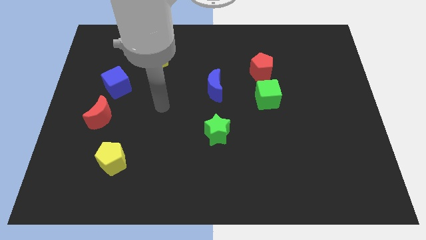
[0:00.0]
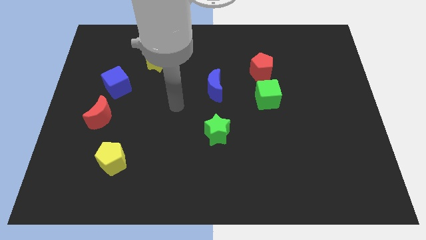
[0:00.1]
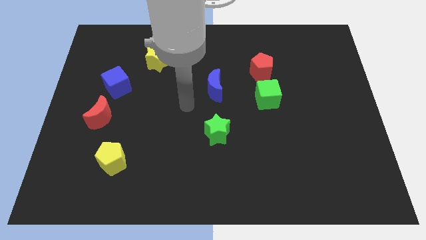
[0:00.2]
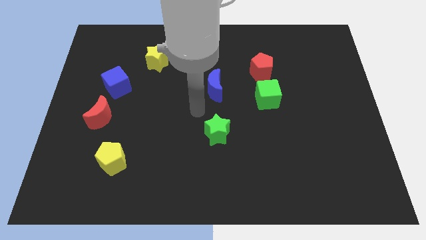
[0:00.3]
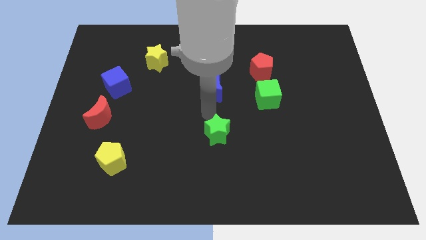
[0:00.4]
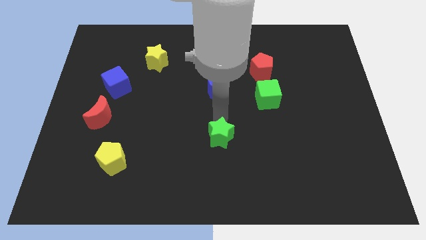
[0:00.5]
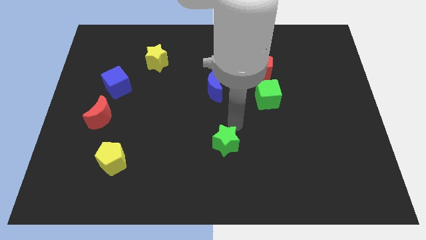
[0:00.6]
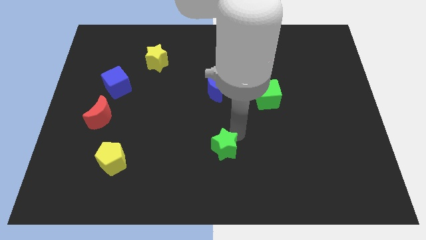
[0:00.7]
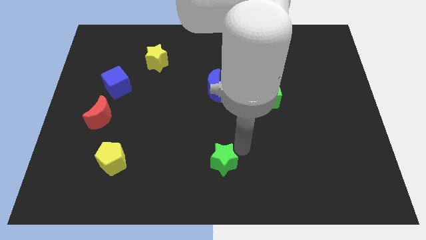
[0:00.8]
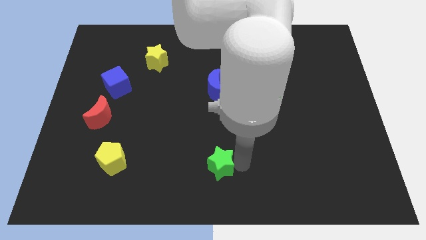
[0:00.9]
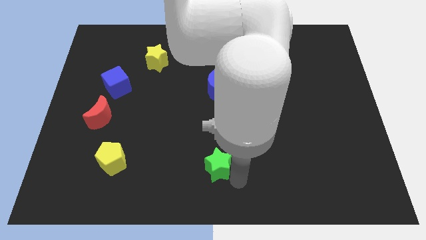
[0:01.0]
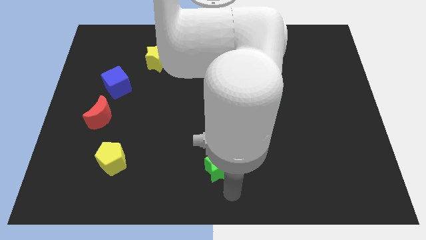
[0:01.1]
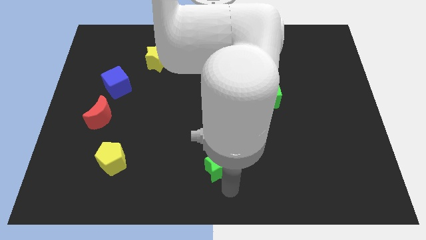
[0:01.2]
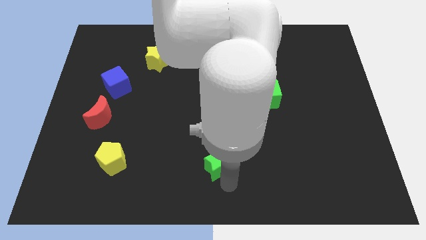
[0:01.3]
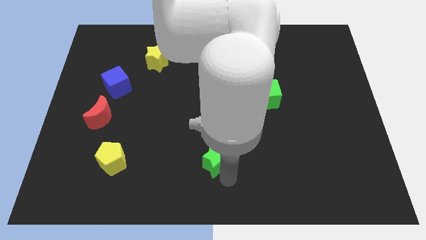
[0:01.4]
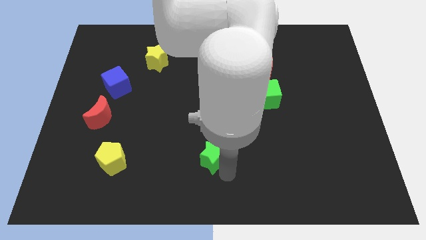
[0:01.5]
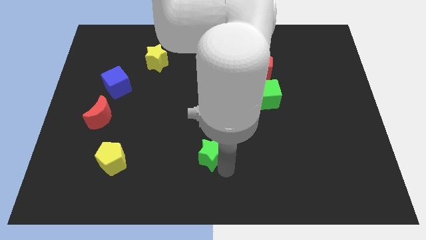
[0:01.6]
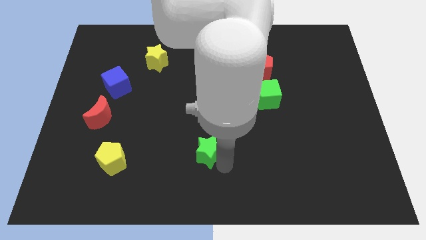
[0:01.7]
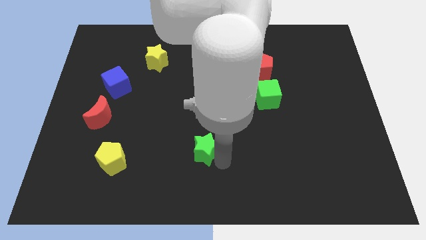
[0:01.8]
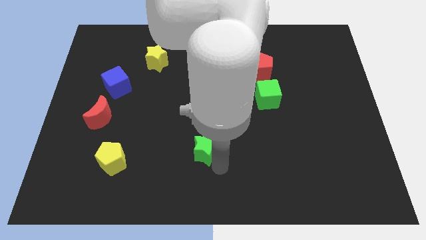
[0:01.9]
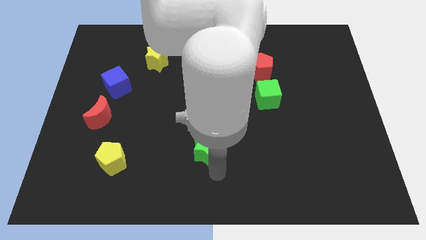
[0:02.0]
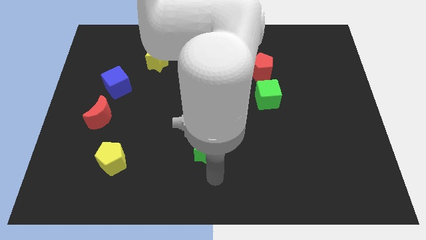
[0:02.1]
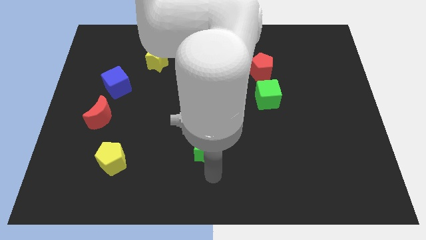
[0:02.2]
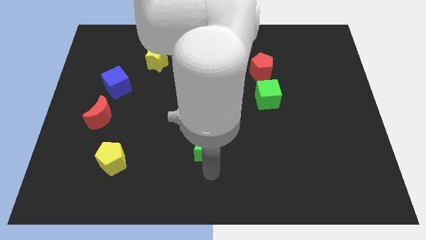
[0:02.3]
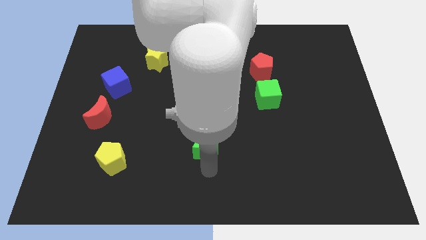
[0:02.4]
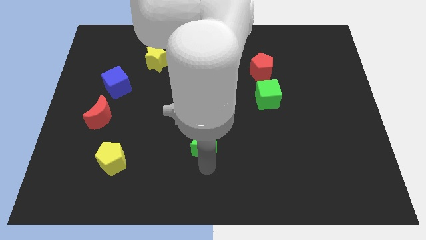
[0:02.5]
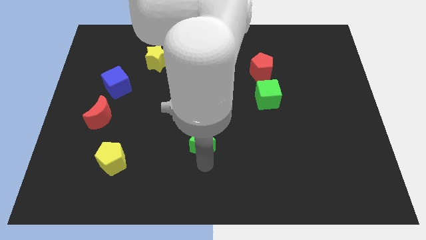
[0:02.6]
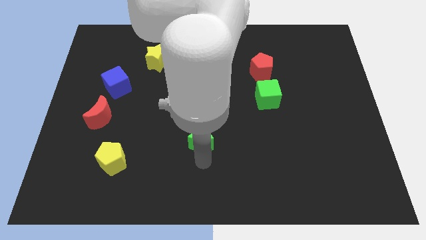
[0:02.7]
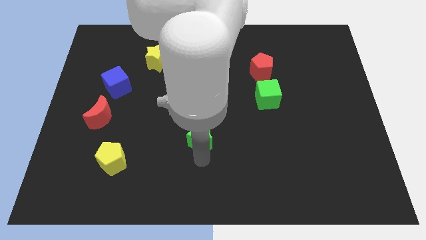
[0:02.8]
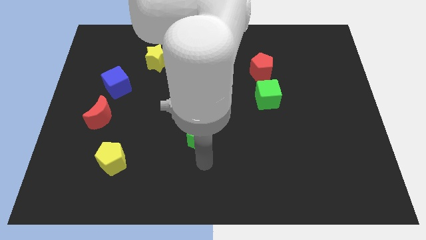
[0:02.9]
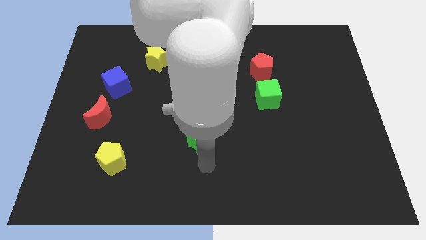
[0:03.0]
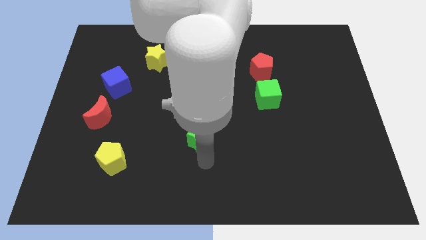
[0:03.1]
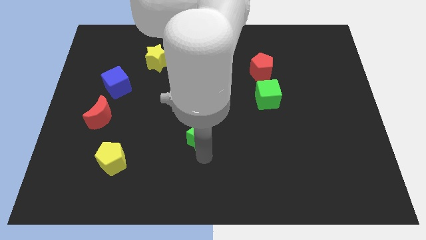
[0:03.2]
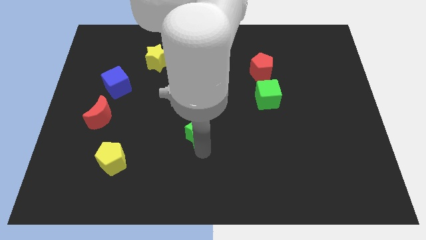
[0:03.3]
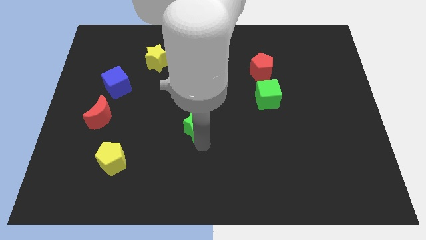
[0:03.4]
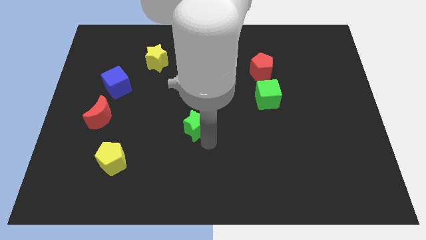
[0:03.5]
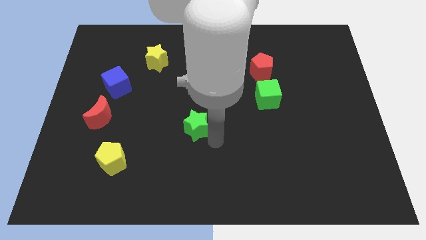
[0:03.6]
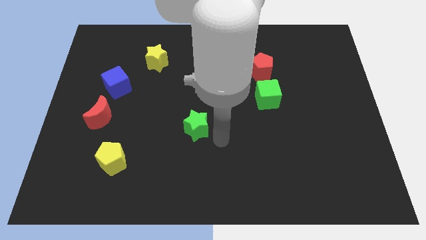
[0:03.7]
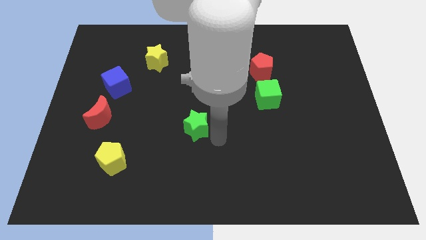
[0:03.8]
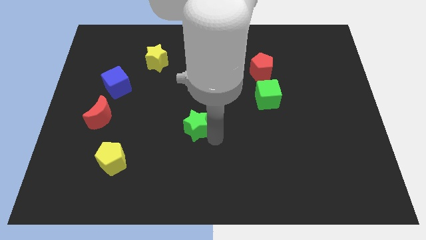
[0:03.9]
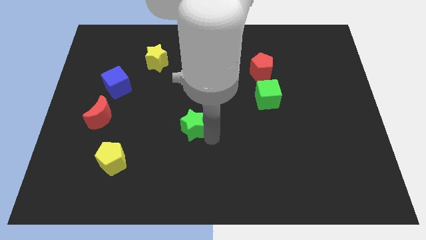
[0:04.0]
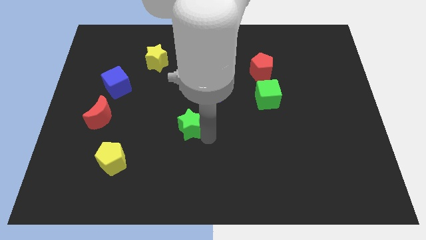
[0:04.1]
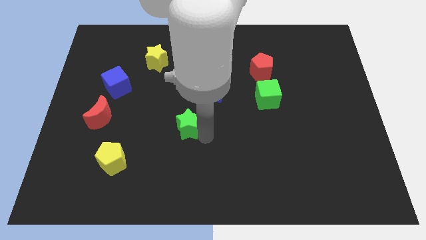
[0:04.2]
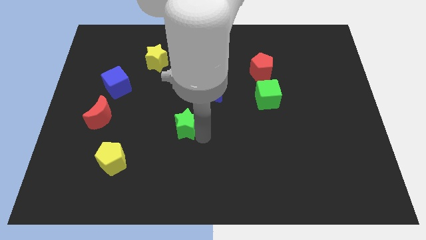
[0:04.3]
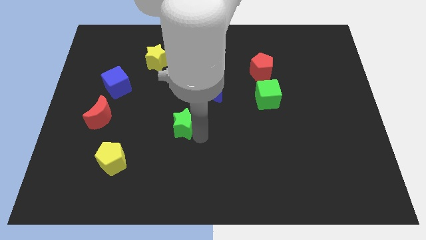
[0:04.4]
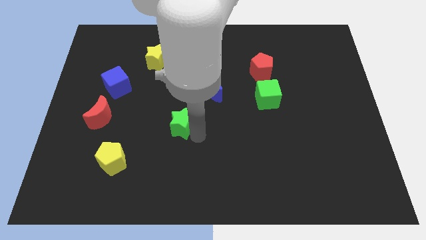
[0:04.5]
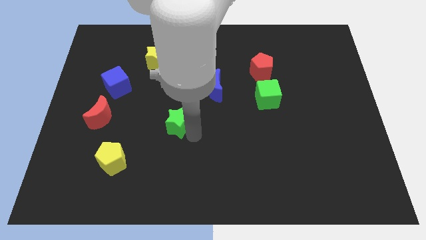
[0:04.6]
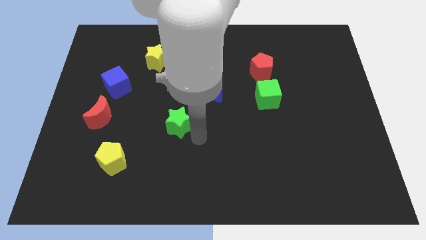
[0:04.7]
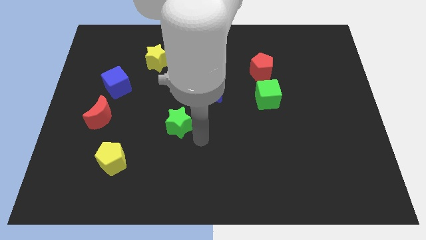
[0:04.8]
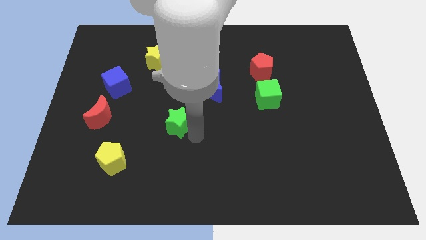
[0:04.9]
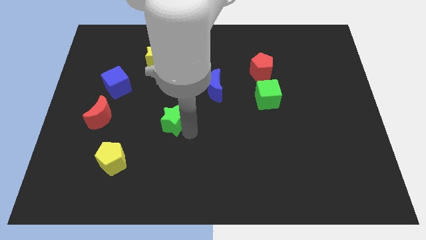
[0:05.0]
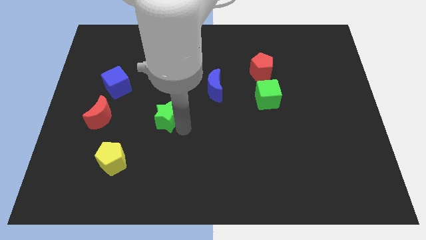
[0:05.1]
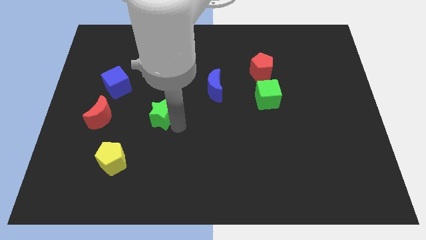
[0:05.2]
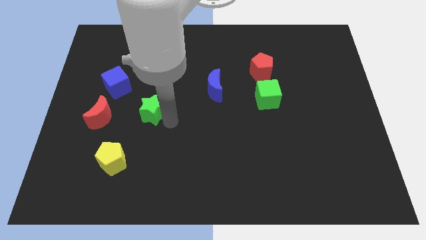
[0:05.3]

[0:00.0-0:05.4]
push the green star to the bottom right of the blue cube

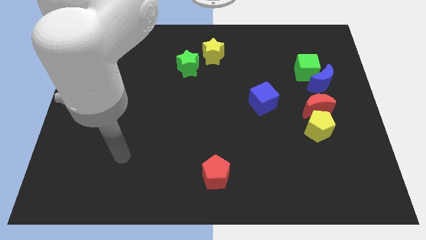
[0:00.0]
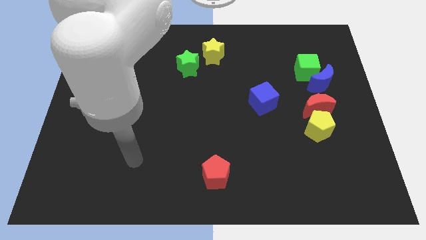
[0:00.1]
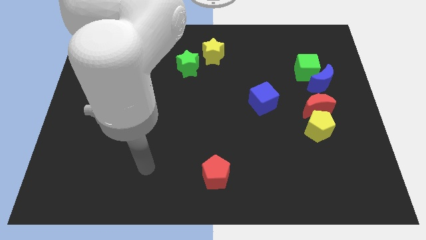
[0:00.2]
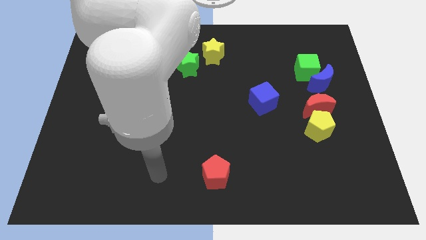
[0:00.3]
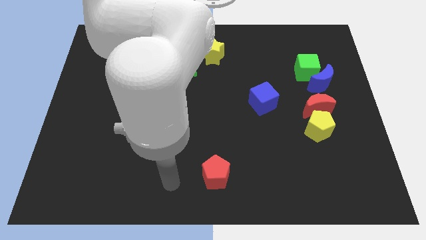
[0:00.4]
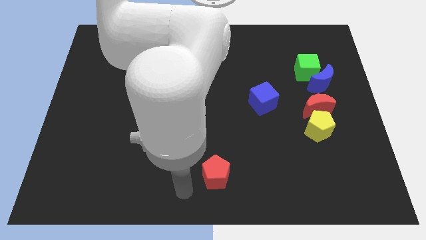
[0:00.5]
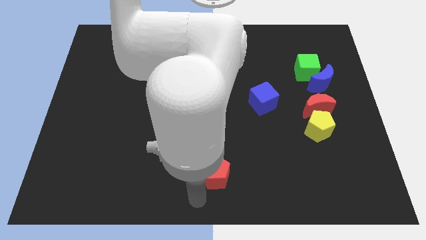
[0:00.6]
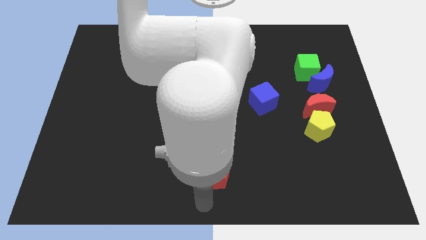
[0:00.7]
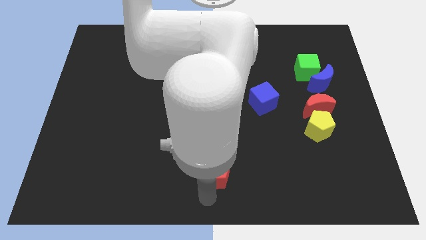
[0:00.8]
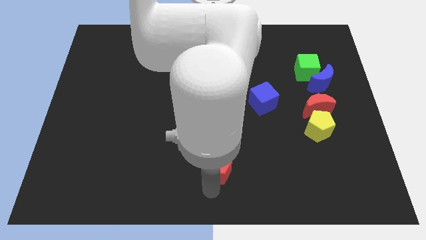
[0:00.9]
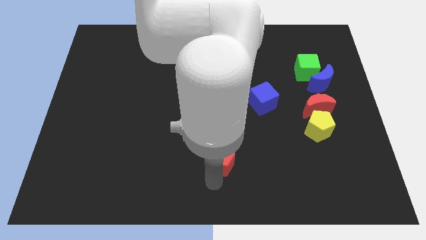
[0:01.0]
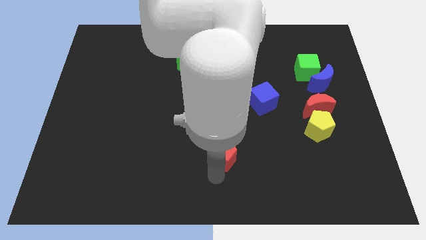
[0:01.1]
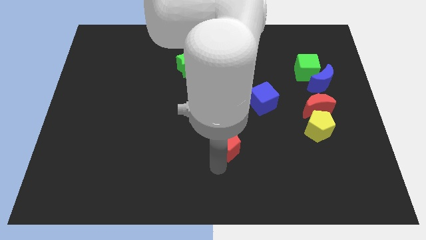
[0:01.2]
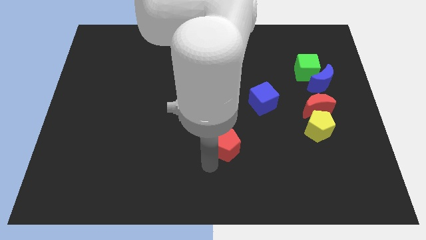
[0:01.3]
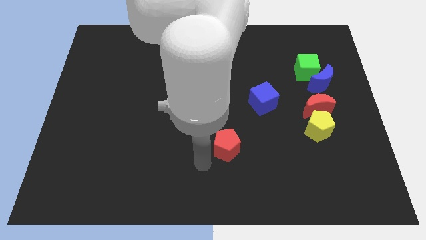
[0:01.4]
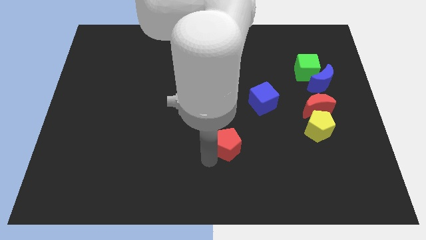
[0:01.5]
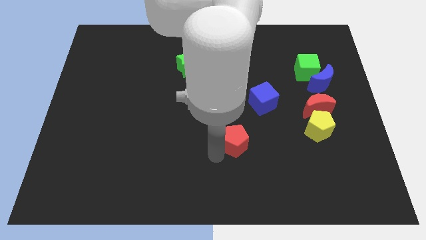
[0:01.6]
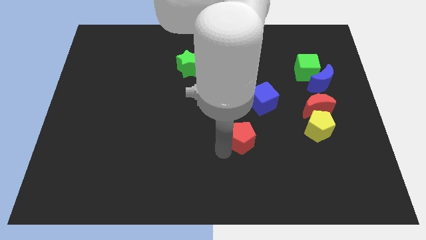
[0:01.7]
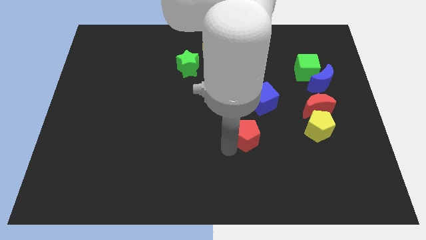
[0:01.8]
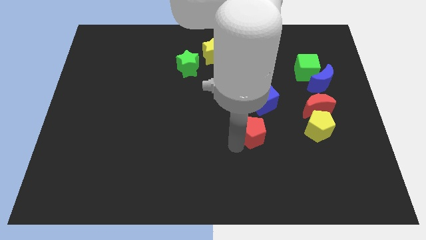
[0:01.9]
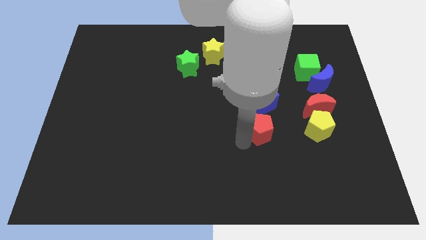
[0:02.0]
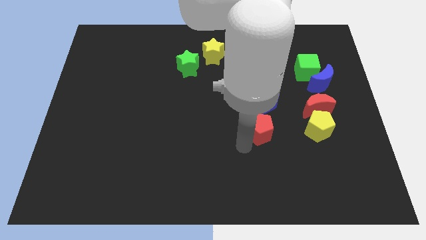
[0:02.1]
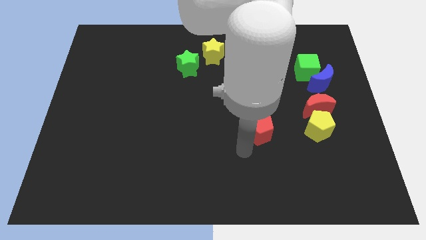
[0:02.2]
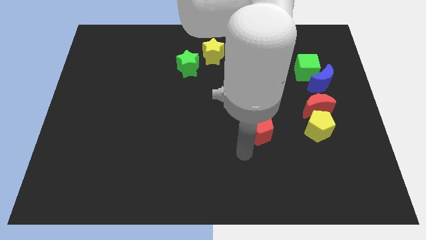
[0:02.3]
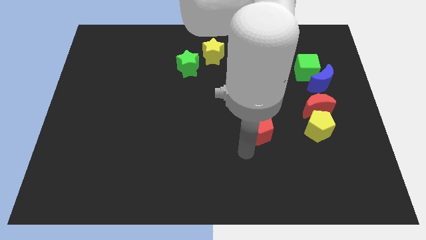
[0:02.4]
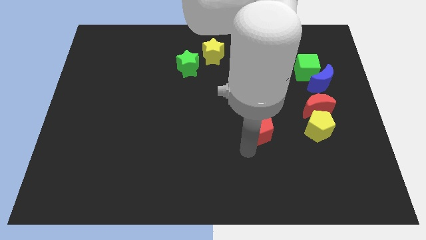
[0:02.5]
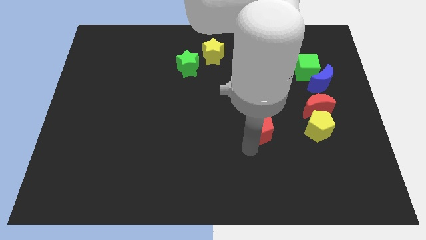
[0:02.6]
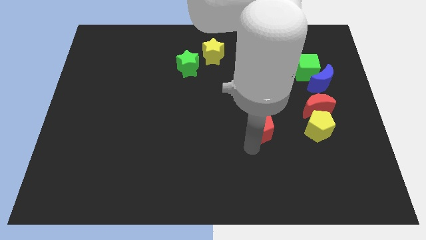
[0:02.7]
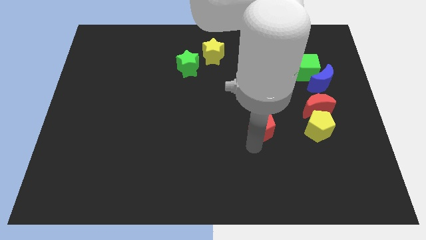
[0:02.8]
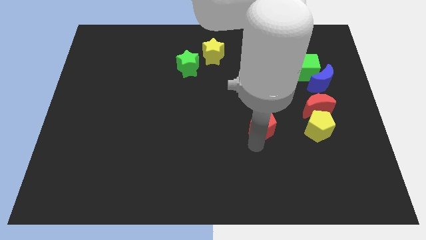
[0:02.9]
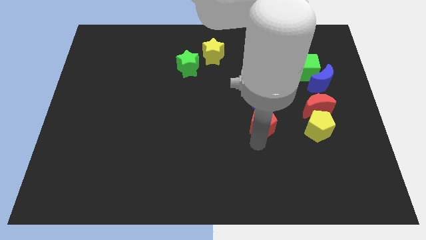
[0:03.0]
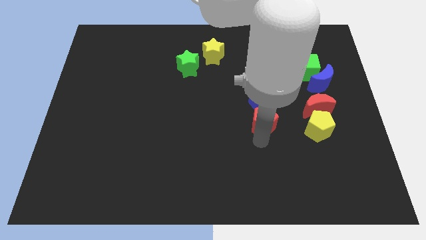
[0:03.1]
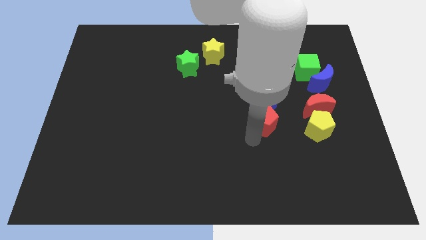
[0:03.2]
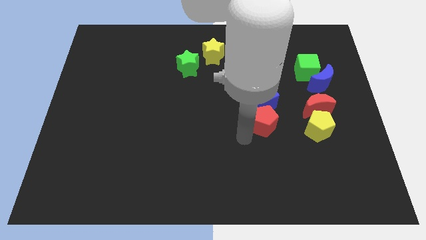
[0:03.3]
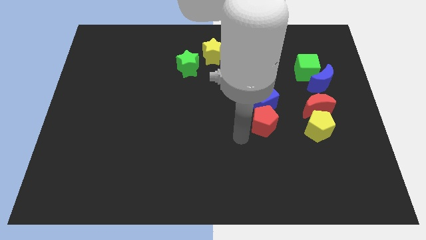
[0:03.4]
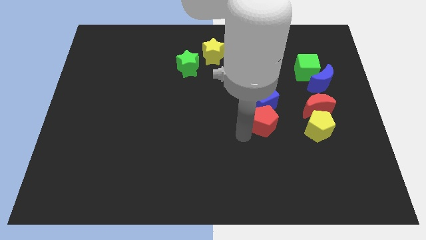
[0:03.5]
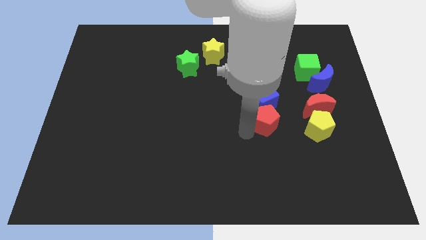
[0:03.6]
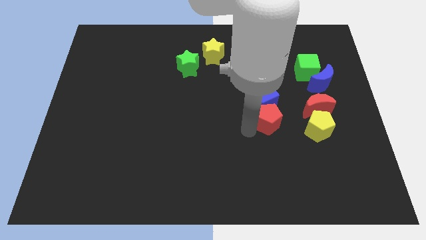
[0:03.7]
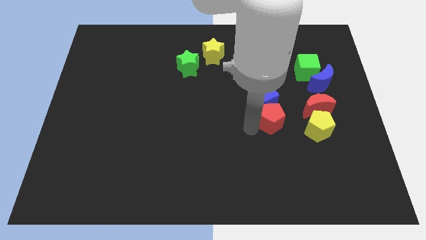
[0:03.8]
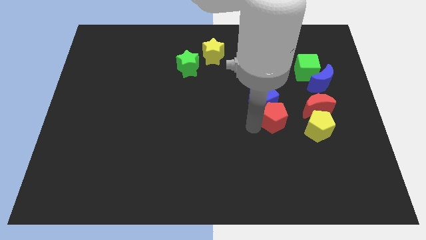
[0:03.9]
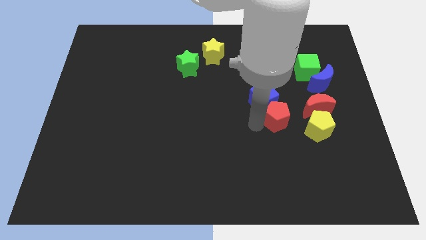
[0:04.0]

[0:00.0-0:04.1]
slide the red pentagon diagonally up and to the left of the yellow pentagon
